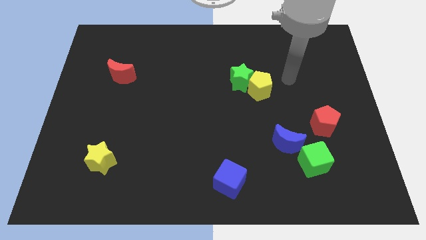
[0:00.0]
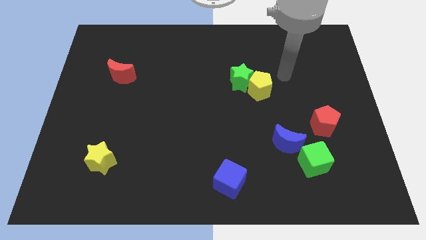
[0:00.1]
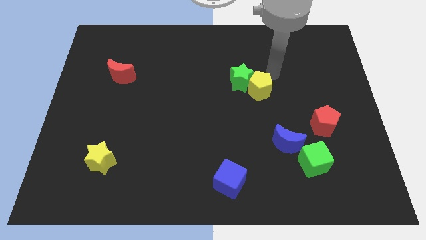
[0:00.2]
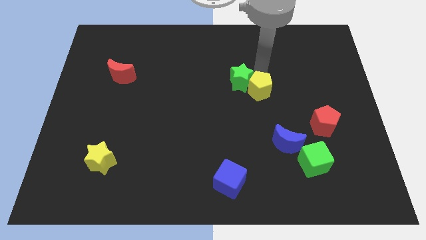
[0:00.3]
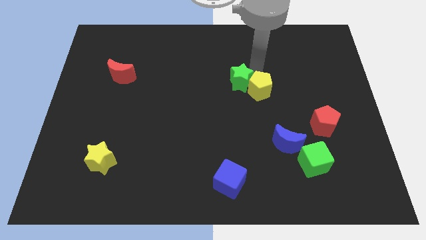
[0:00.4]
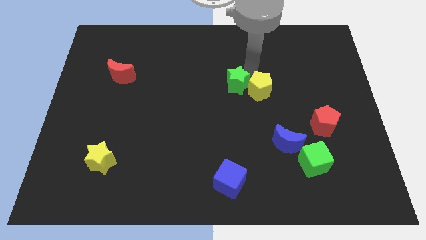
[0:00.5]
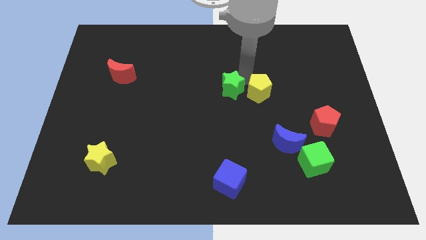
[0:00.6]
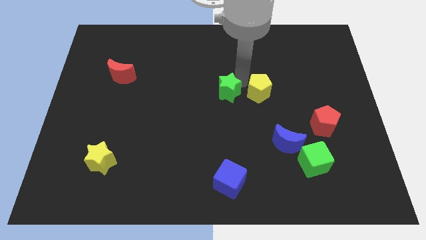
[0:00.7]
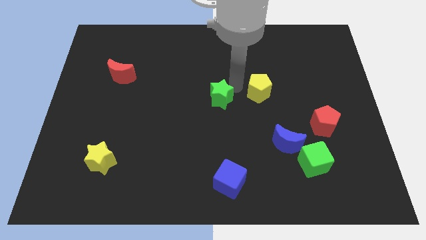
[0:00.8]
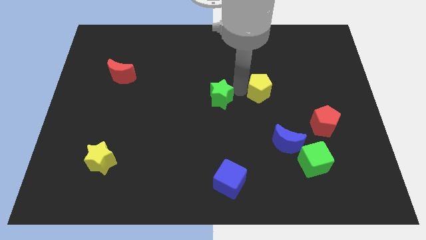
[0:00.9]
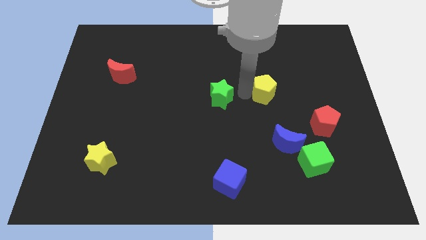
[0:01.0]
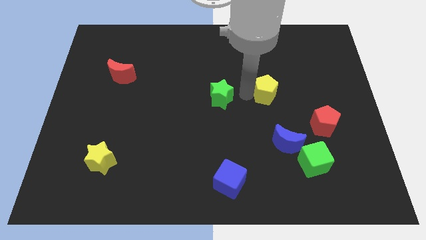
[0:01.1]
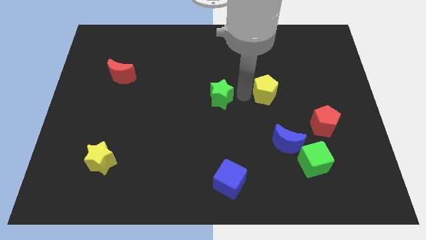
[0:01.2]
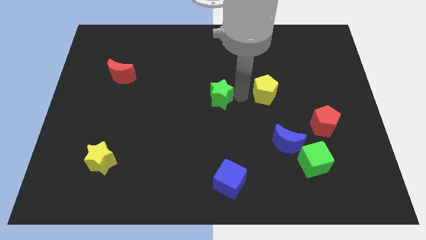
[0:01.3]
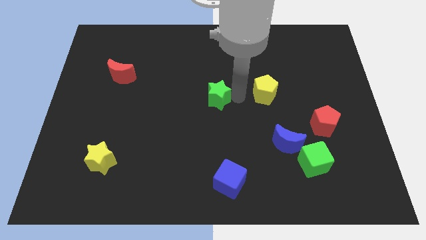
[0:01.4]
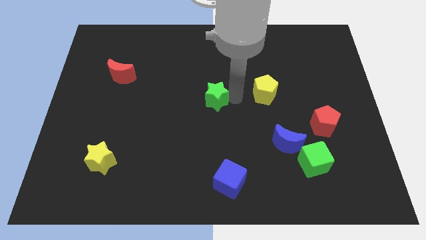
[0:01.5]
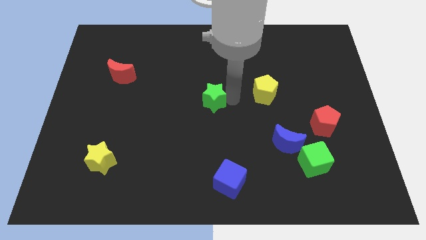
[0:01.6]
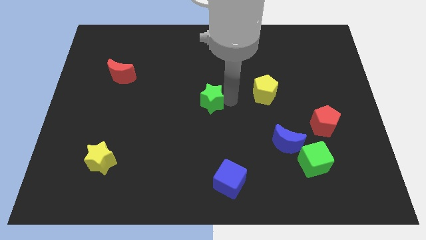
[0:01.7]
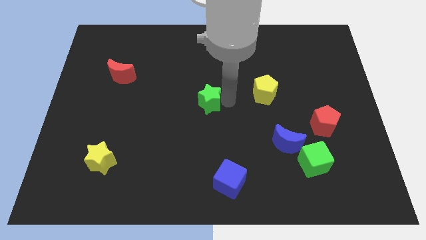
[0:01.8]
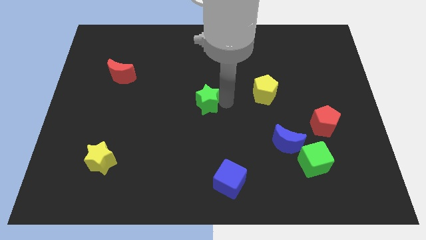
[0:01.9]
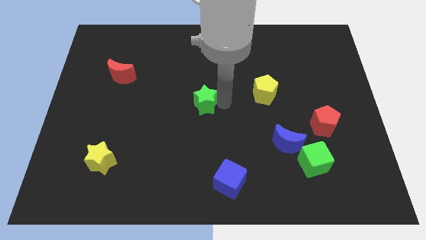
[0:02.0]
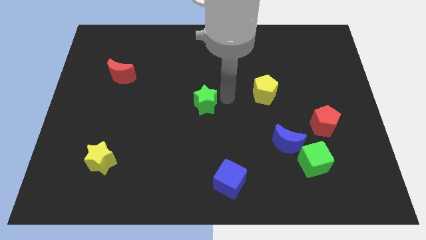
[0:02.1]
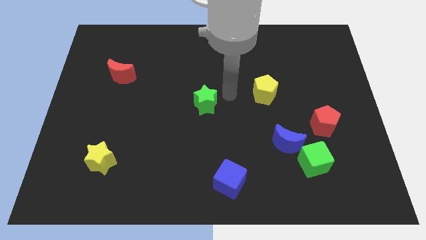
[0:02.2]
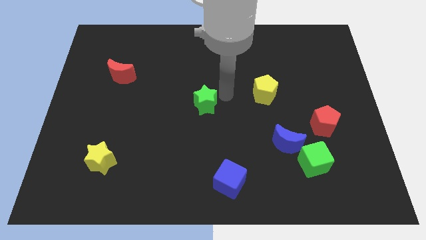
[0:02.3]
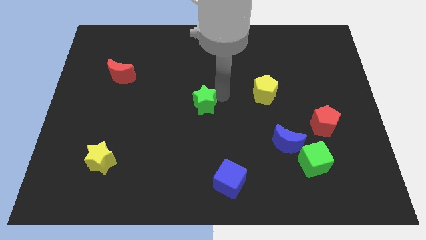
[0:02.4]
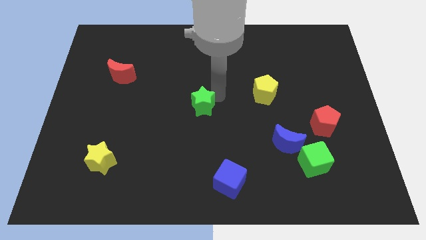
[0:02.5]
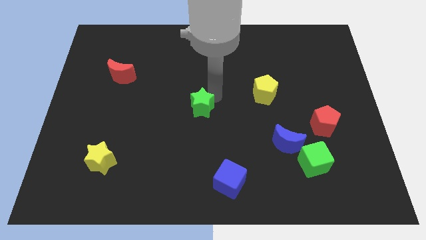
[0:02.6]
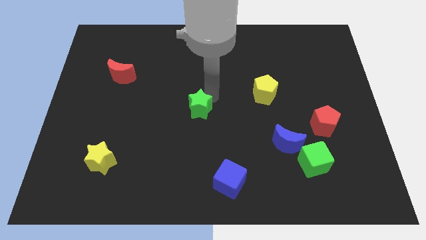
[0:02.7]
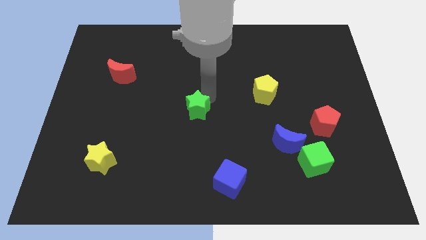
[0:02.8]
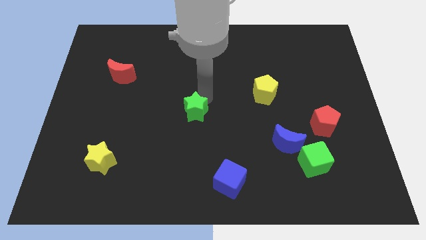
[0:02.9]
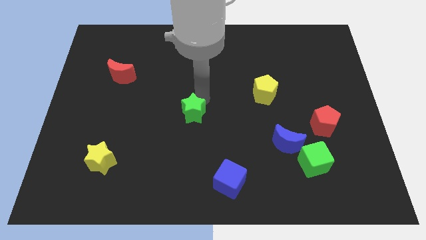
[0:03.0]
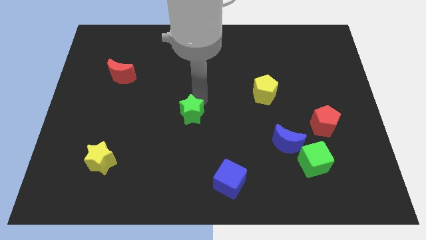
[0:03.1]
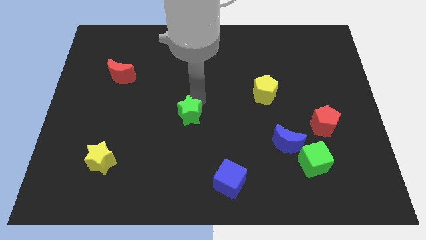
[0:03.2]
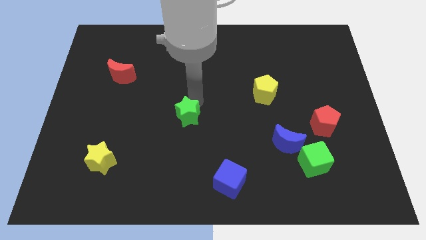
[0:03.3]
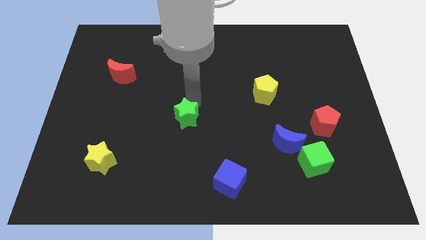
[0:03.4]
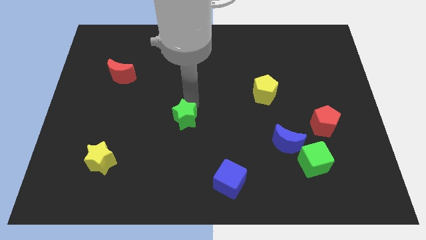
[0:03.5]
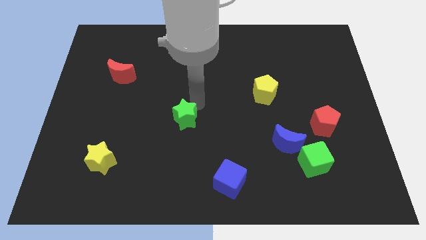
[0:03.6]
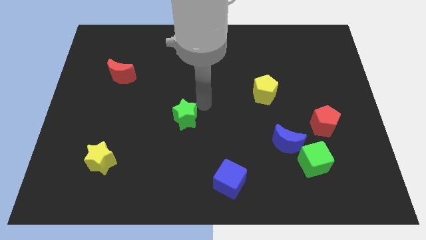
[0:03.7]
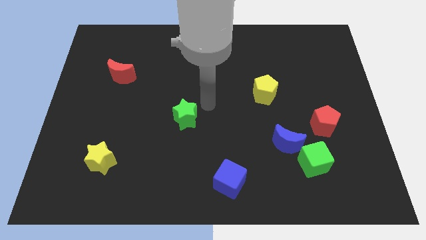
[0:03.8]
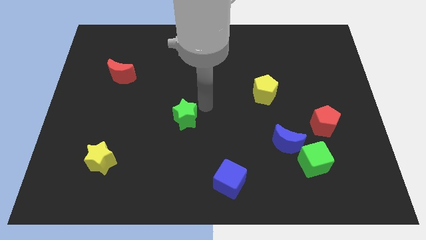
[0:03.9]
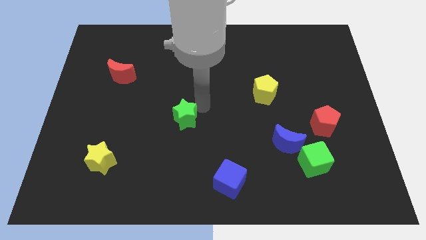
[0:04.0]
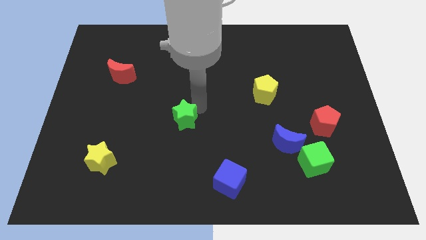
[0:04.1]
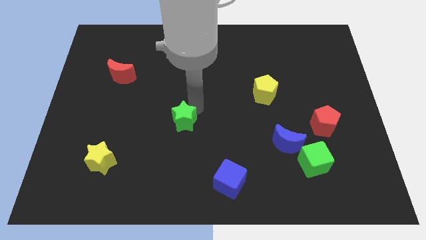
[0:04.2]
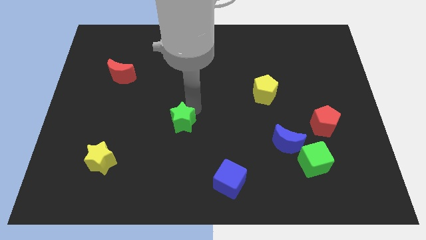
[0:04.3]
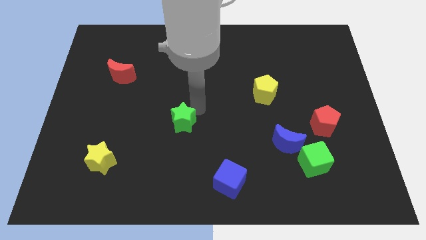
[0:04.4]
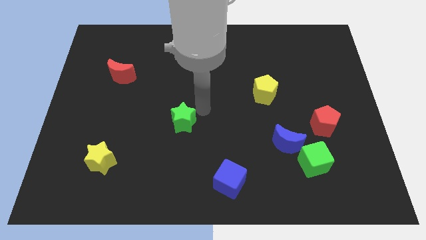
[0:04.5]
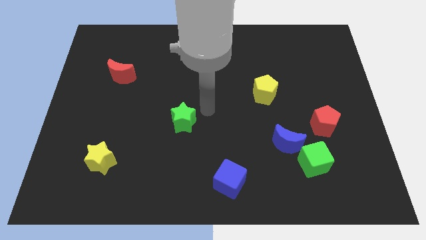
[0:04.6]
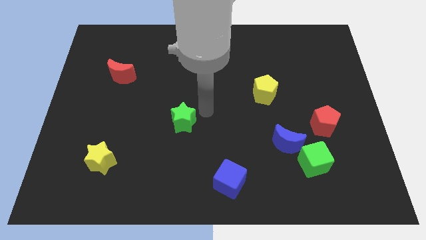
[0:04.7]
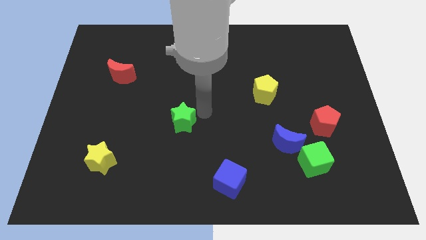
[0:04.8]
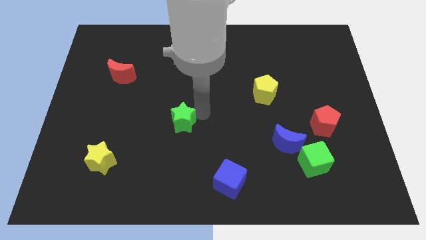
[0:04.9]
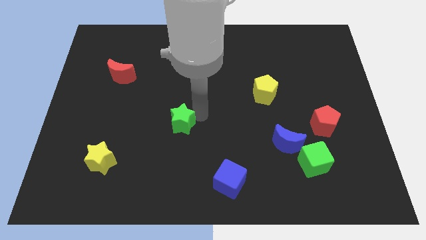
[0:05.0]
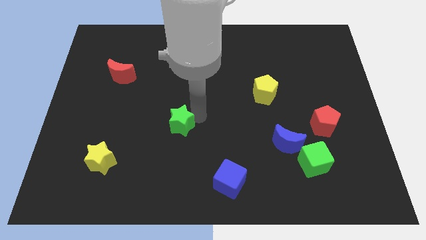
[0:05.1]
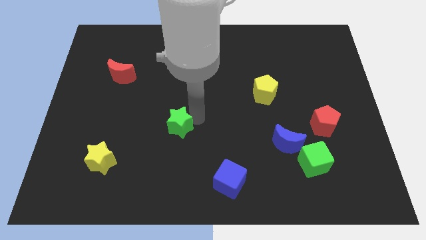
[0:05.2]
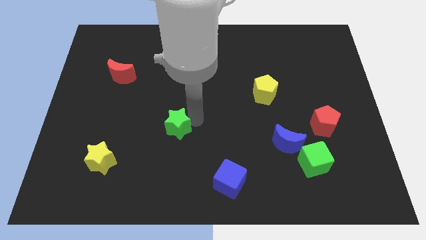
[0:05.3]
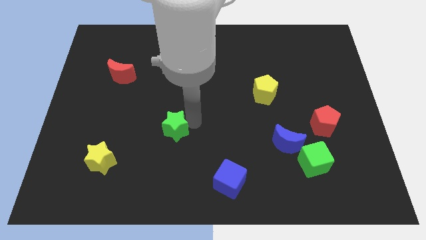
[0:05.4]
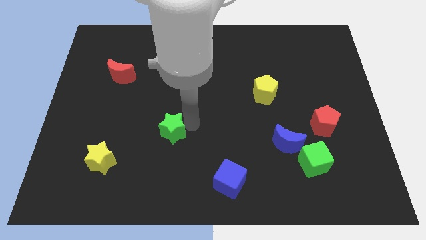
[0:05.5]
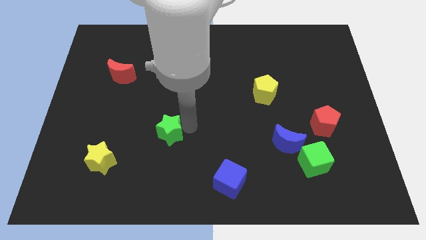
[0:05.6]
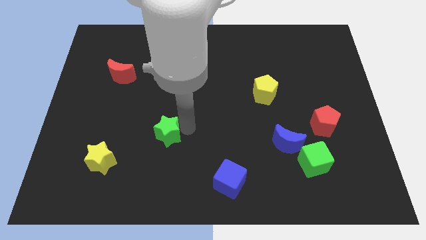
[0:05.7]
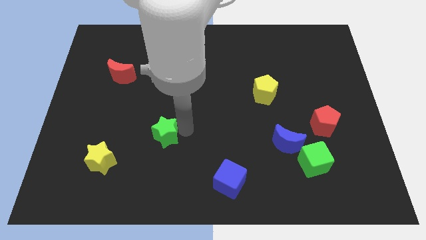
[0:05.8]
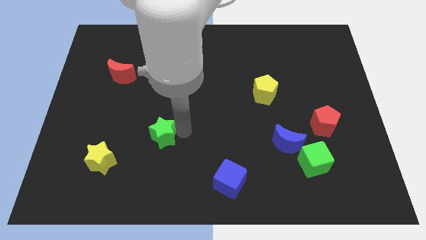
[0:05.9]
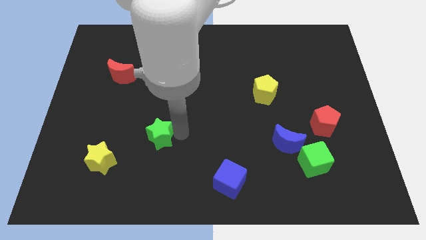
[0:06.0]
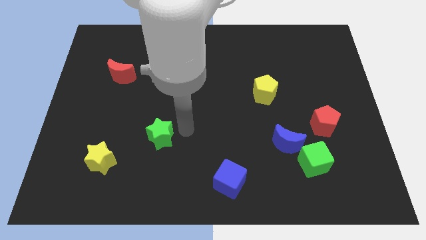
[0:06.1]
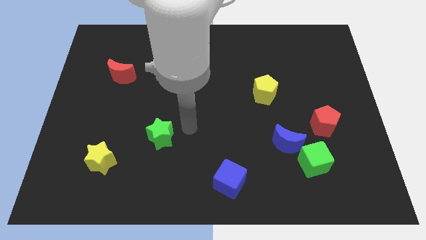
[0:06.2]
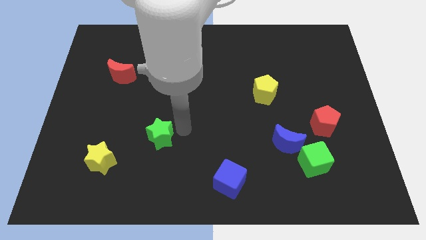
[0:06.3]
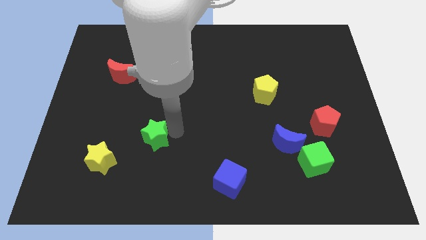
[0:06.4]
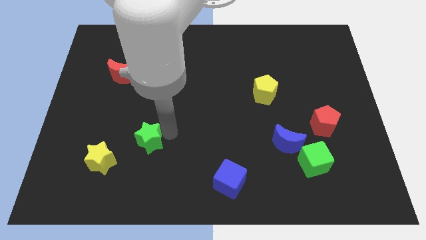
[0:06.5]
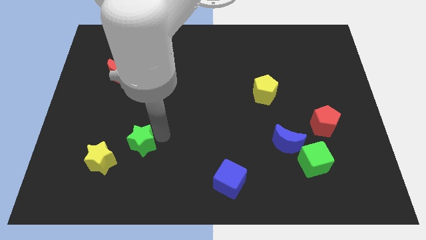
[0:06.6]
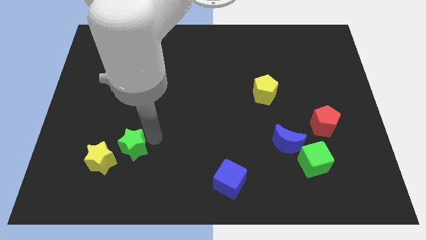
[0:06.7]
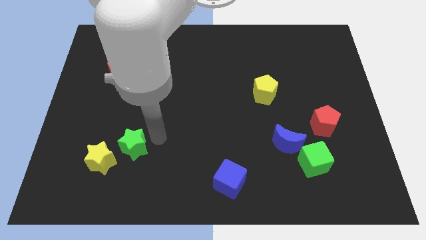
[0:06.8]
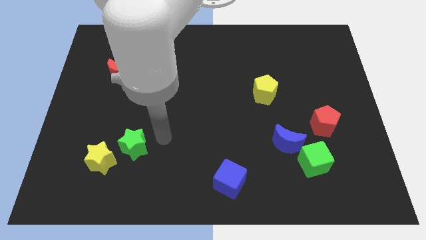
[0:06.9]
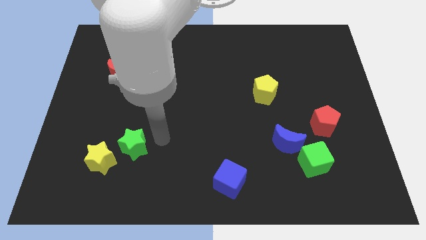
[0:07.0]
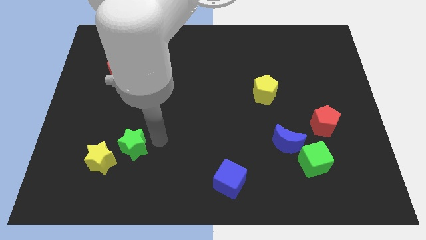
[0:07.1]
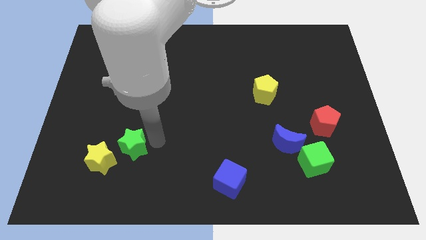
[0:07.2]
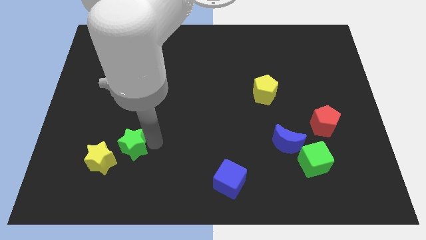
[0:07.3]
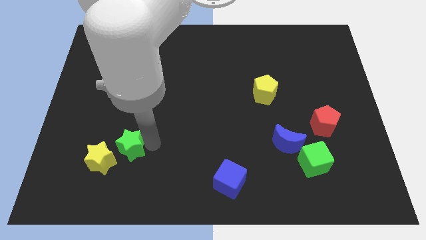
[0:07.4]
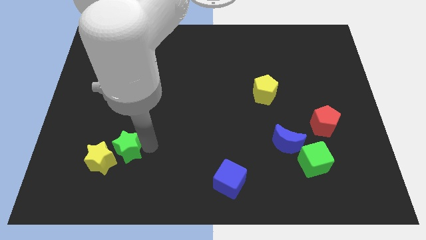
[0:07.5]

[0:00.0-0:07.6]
move the green star to the yellow star
